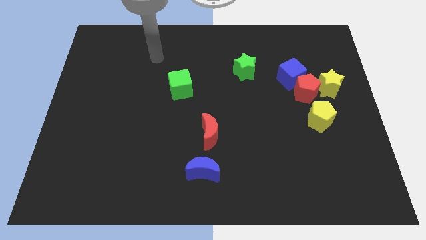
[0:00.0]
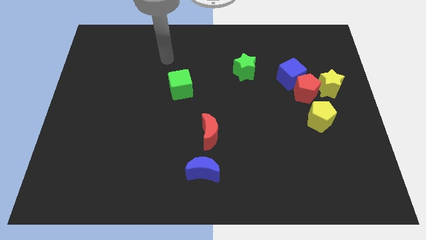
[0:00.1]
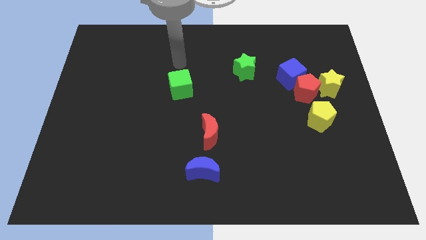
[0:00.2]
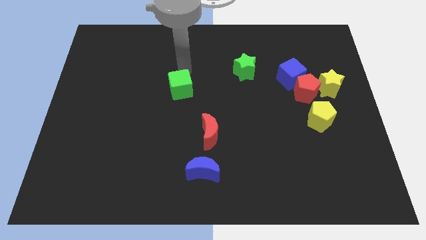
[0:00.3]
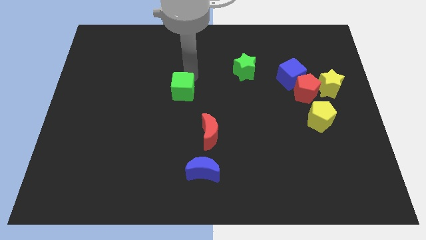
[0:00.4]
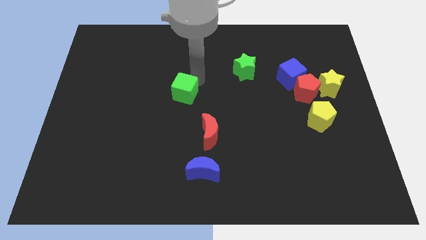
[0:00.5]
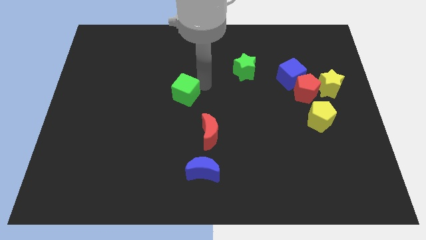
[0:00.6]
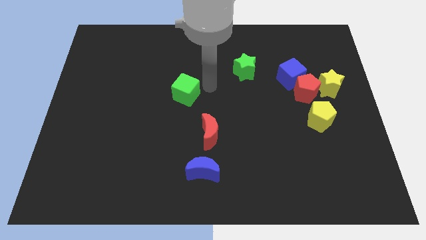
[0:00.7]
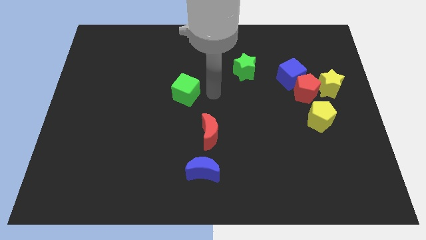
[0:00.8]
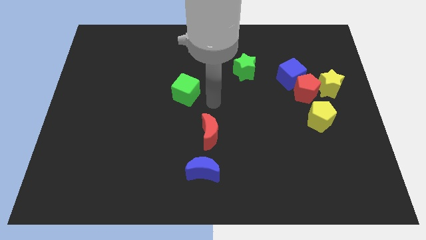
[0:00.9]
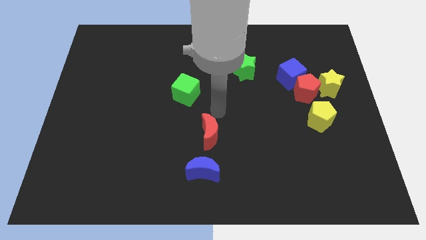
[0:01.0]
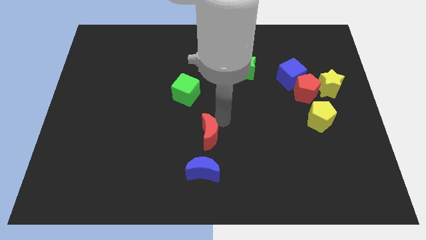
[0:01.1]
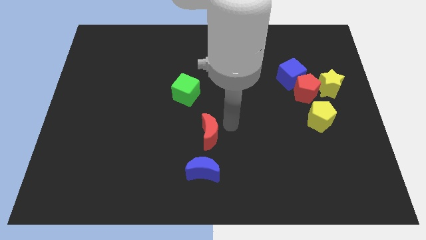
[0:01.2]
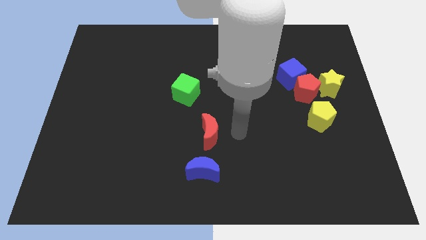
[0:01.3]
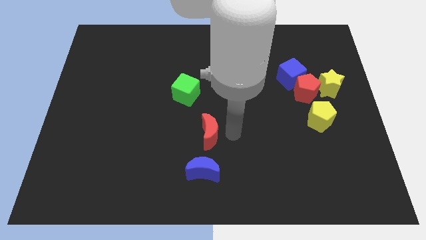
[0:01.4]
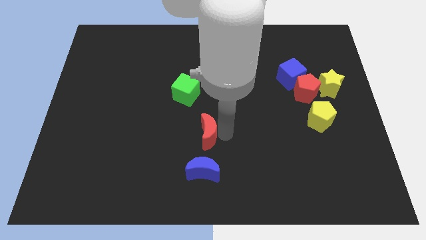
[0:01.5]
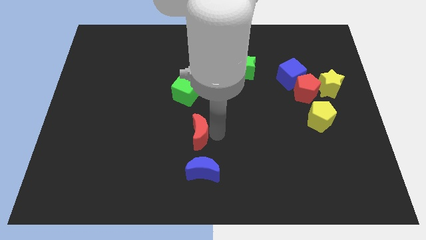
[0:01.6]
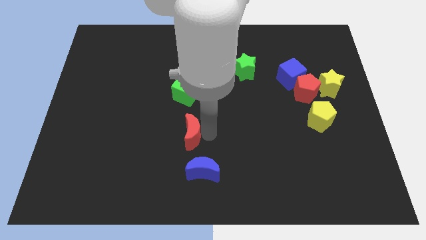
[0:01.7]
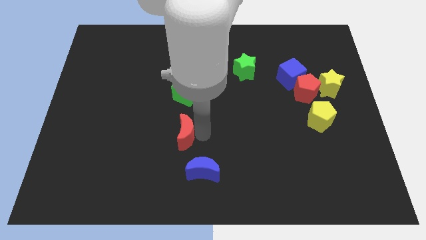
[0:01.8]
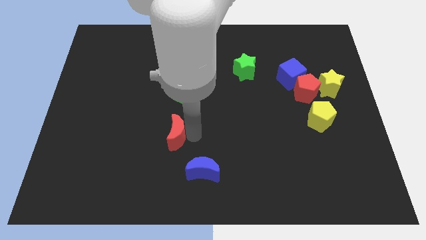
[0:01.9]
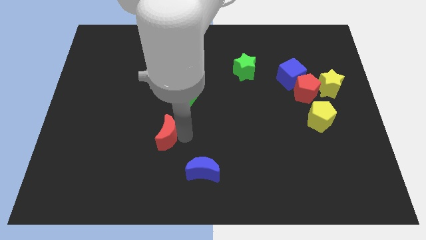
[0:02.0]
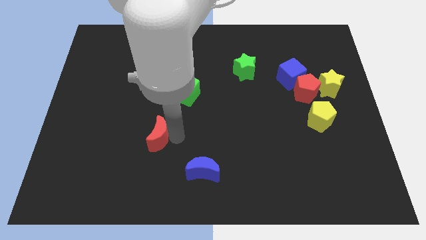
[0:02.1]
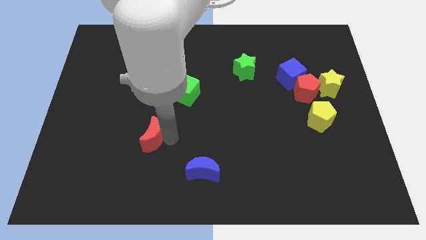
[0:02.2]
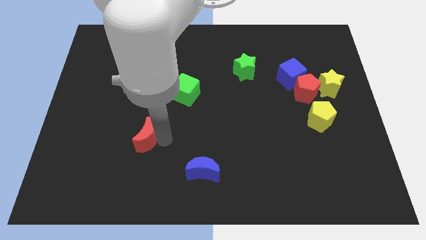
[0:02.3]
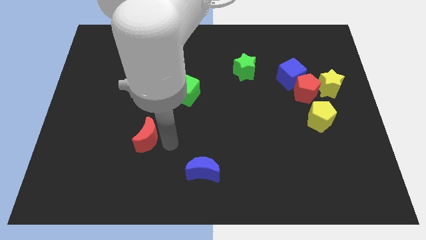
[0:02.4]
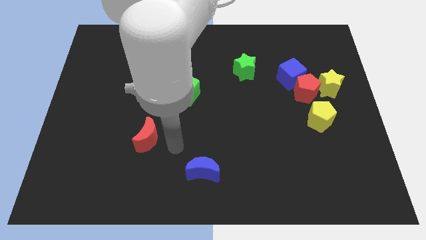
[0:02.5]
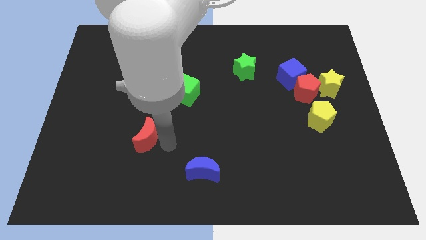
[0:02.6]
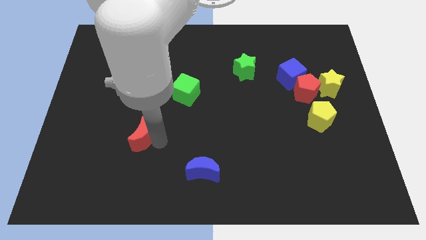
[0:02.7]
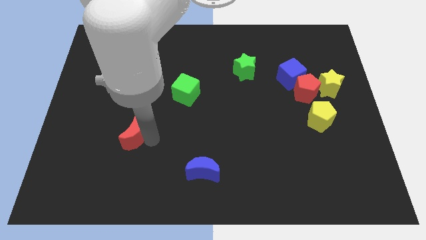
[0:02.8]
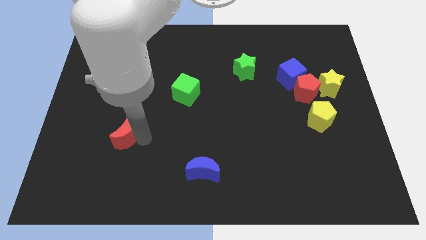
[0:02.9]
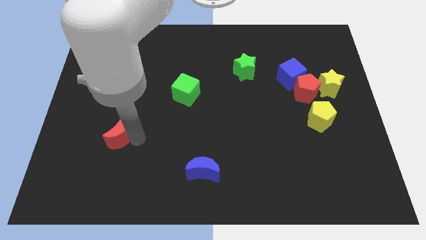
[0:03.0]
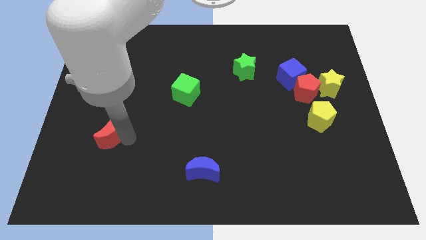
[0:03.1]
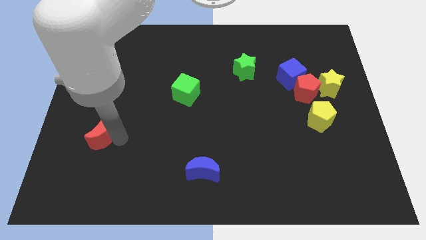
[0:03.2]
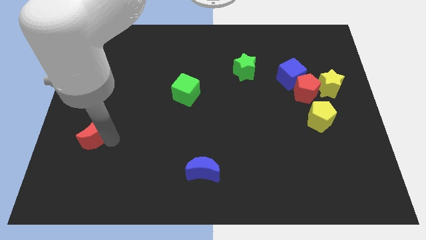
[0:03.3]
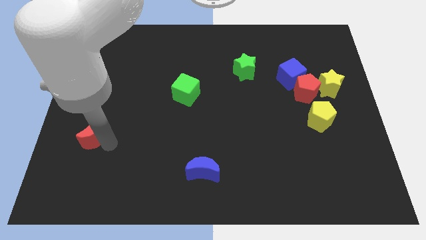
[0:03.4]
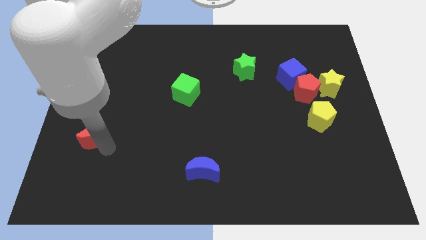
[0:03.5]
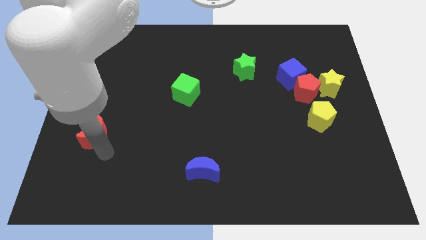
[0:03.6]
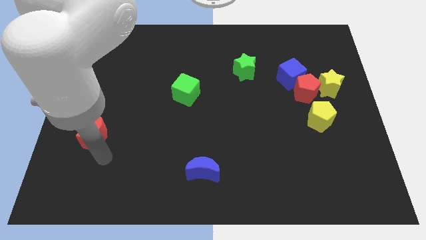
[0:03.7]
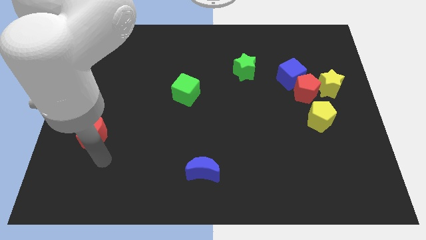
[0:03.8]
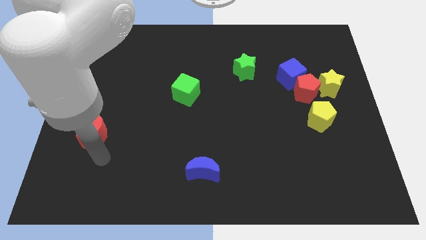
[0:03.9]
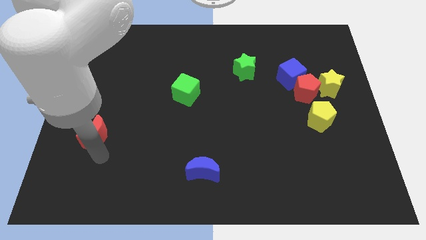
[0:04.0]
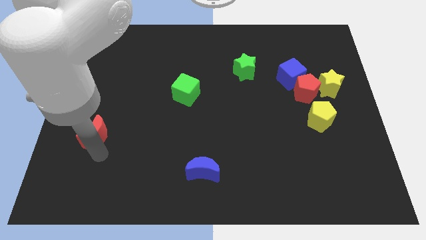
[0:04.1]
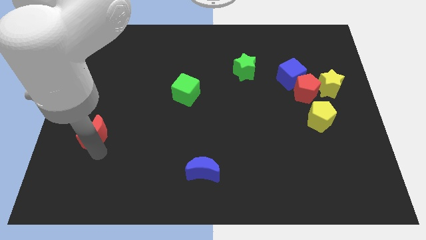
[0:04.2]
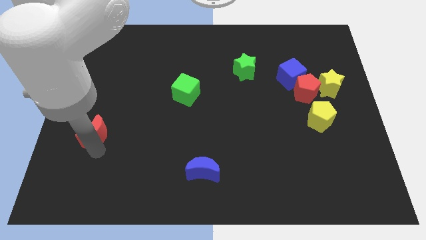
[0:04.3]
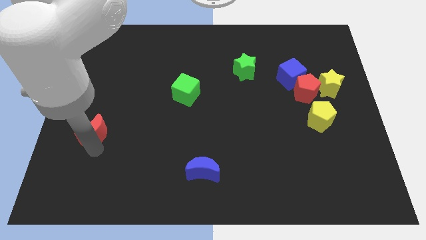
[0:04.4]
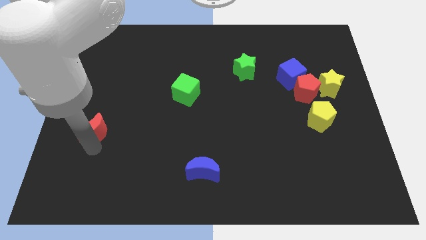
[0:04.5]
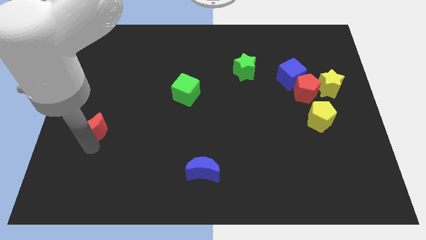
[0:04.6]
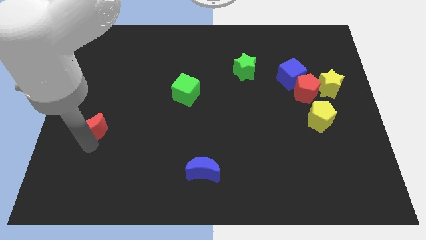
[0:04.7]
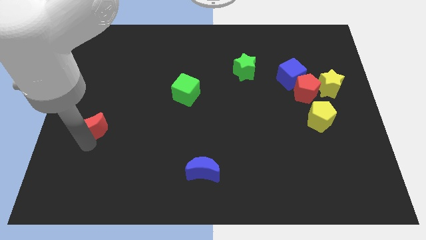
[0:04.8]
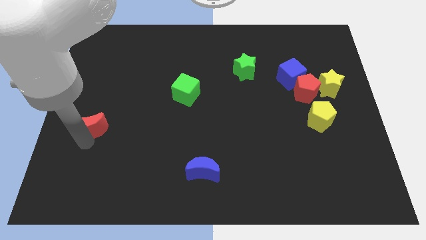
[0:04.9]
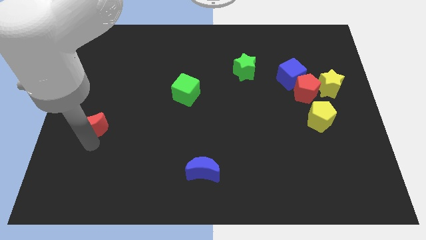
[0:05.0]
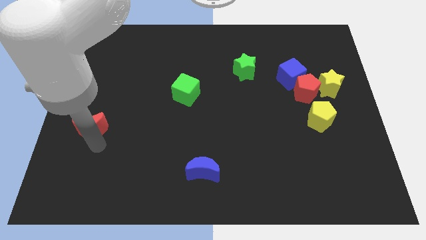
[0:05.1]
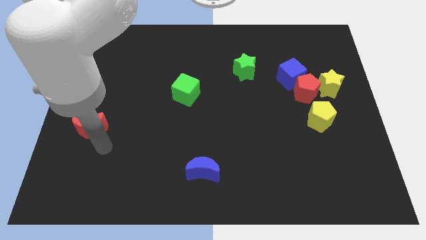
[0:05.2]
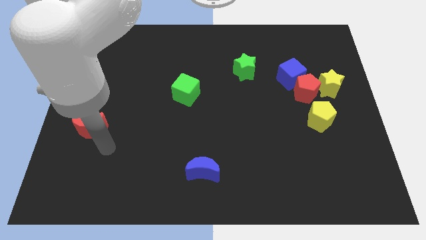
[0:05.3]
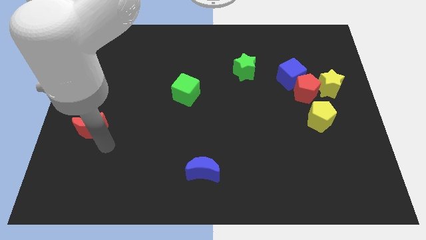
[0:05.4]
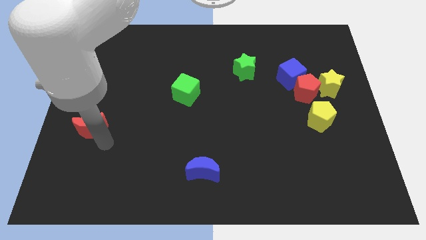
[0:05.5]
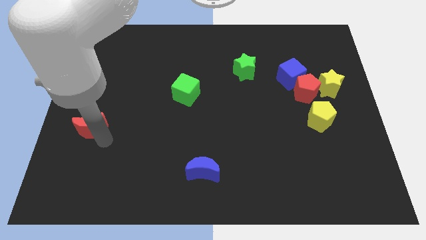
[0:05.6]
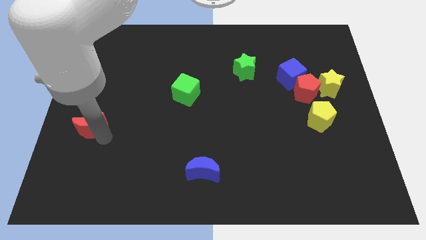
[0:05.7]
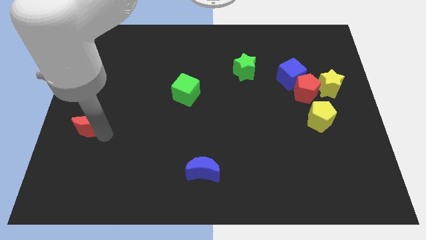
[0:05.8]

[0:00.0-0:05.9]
move the red moon to the center left

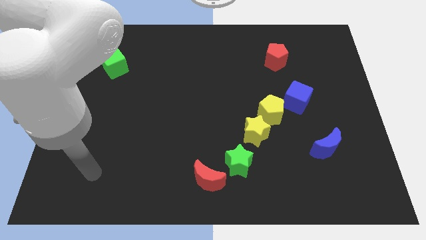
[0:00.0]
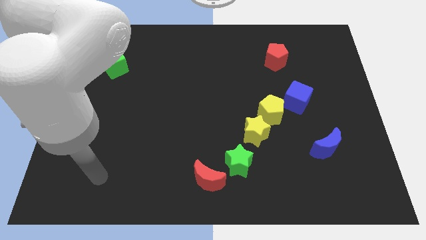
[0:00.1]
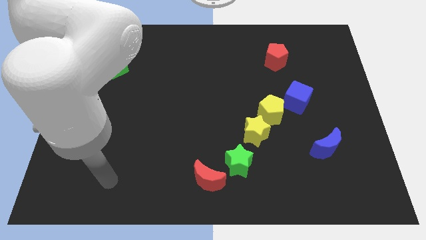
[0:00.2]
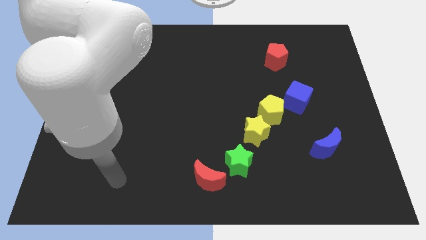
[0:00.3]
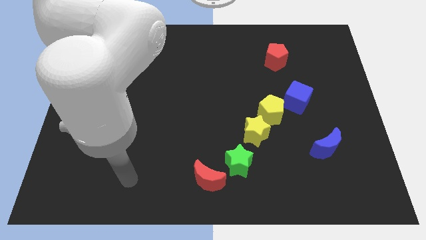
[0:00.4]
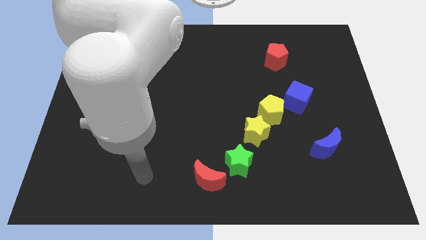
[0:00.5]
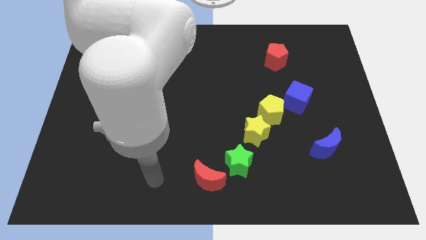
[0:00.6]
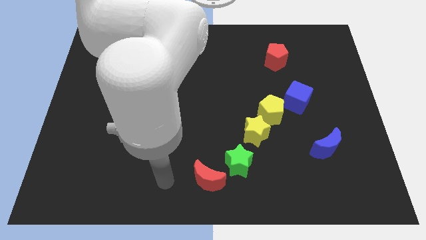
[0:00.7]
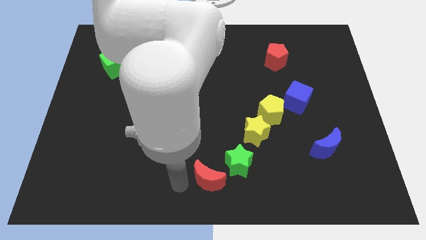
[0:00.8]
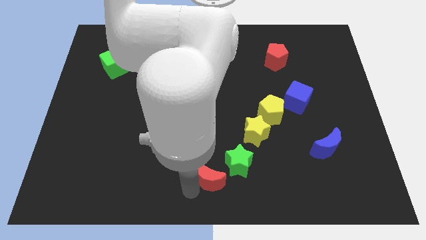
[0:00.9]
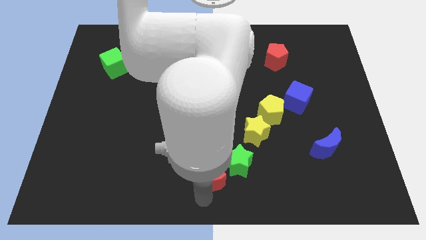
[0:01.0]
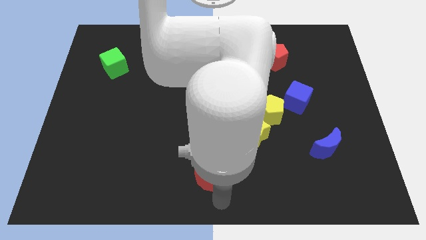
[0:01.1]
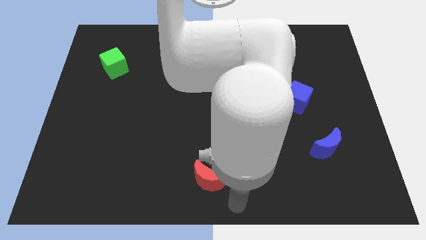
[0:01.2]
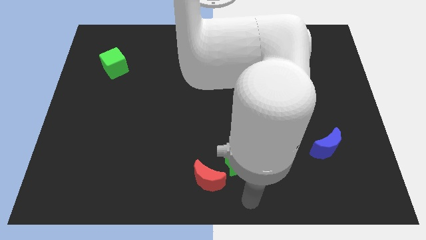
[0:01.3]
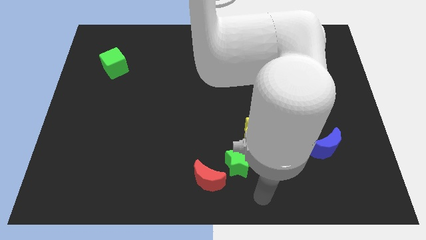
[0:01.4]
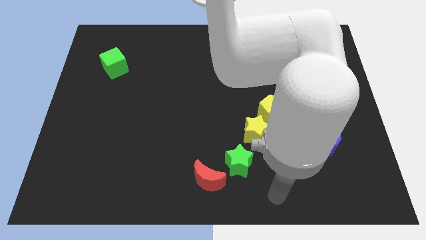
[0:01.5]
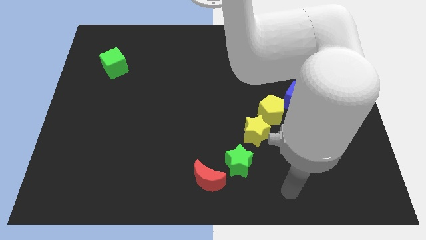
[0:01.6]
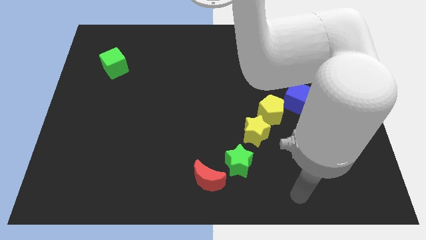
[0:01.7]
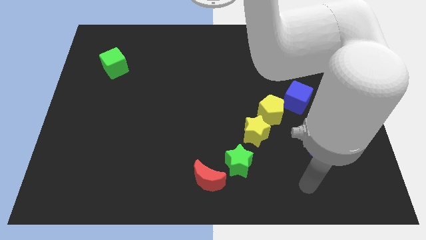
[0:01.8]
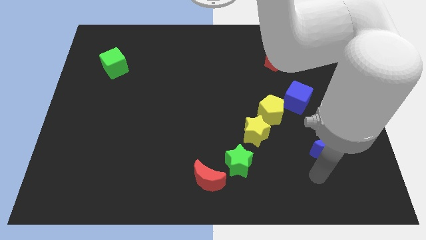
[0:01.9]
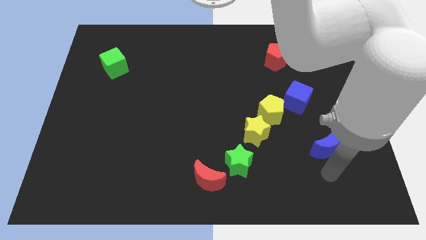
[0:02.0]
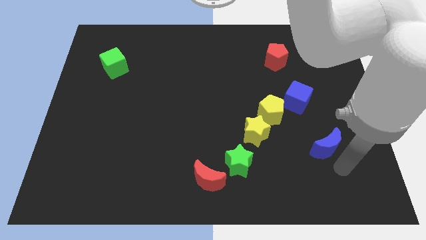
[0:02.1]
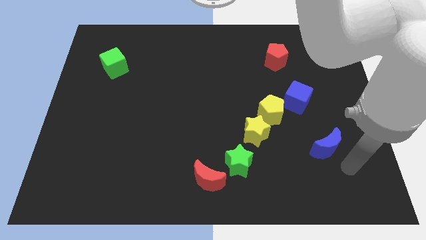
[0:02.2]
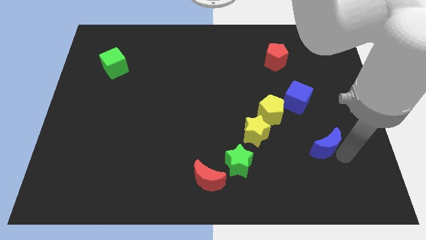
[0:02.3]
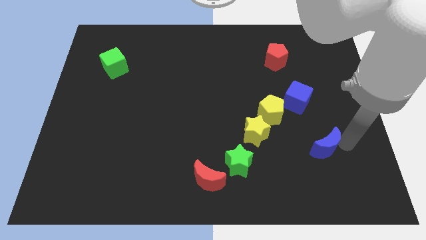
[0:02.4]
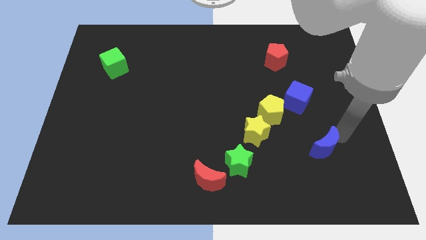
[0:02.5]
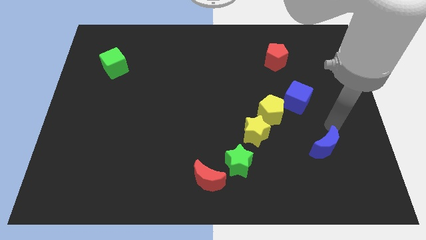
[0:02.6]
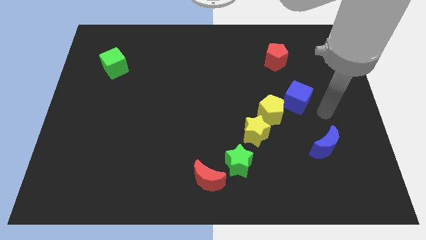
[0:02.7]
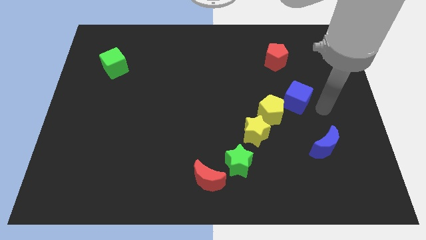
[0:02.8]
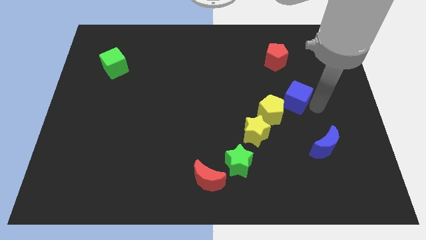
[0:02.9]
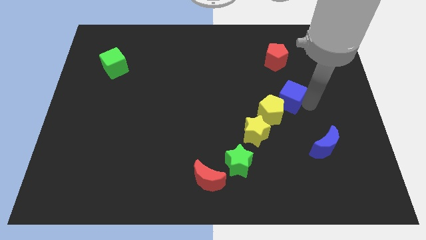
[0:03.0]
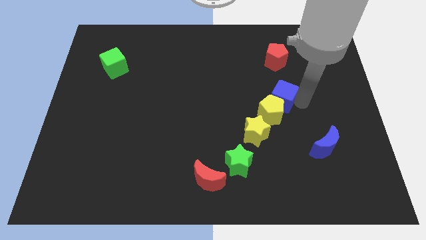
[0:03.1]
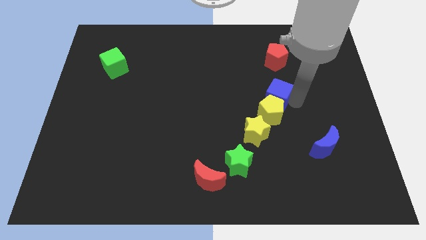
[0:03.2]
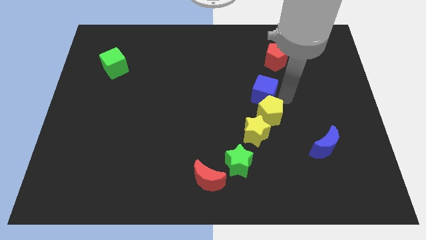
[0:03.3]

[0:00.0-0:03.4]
slide the blue cube to the center of the board
